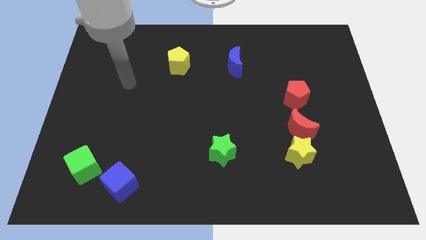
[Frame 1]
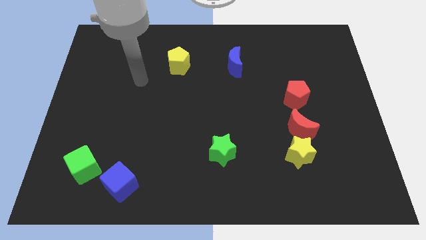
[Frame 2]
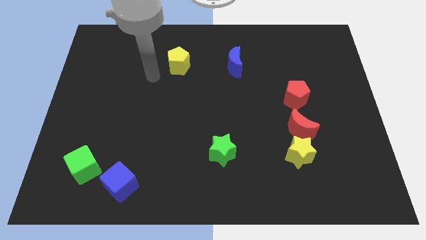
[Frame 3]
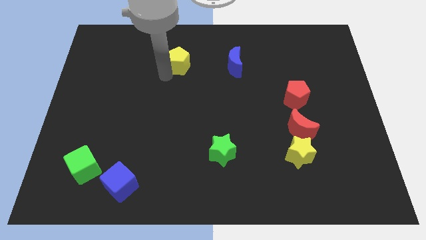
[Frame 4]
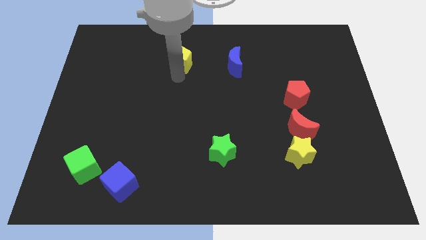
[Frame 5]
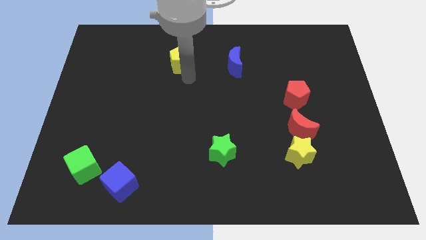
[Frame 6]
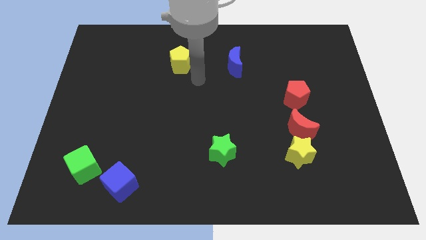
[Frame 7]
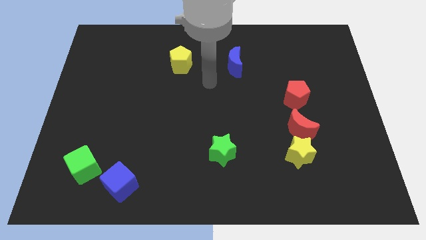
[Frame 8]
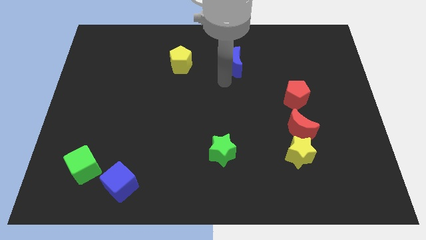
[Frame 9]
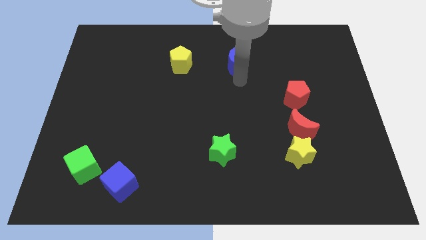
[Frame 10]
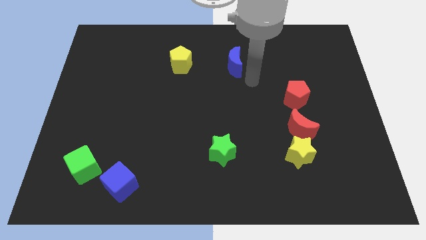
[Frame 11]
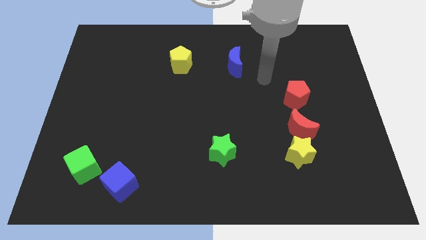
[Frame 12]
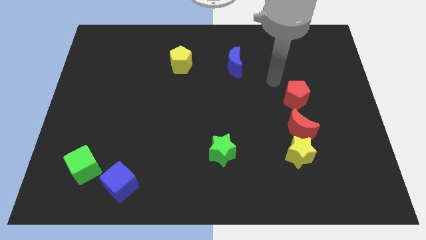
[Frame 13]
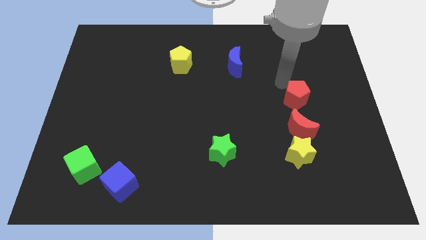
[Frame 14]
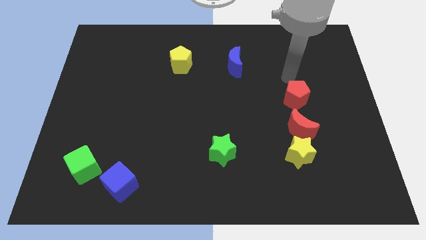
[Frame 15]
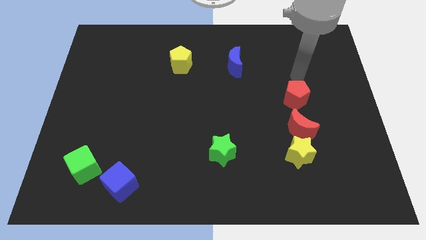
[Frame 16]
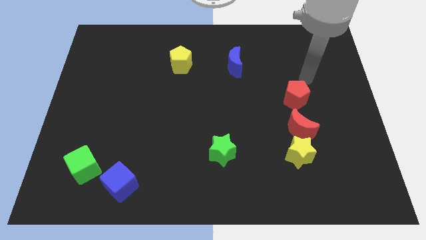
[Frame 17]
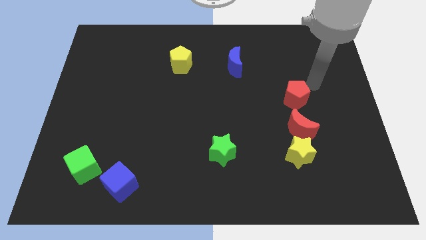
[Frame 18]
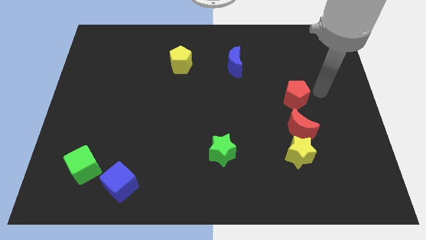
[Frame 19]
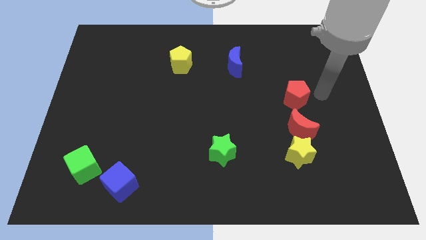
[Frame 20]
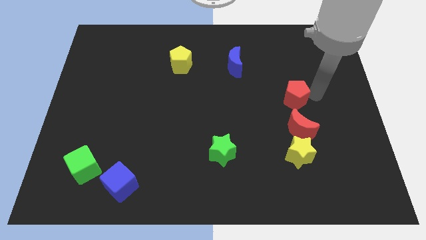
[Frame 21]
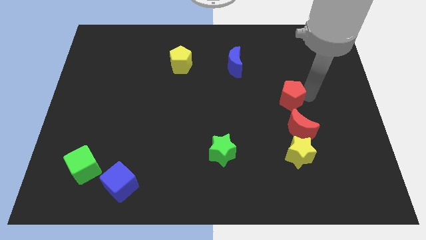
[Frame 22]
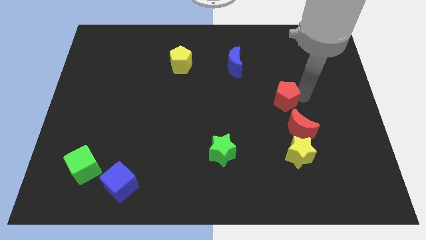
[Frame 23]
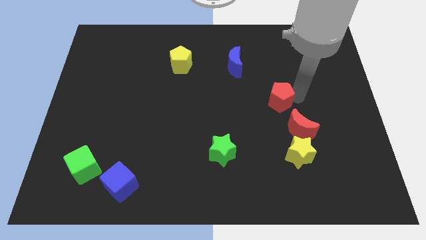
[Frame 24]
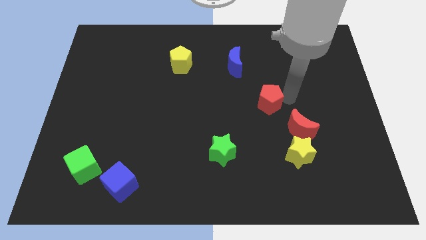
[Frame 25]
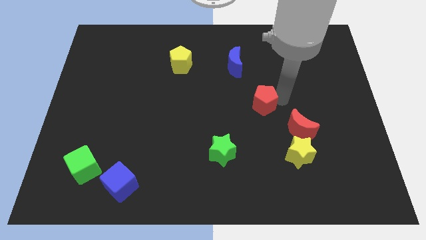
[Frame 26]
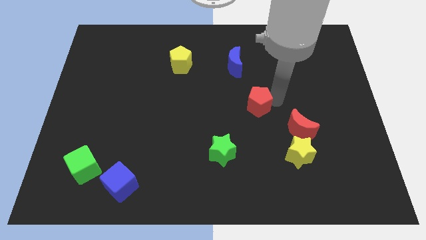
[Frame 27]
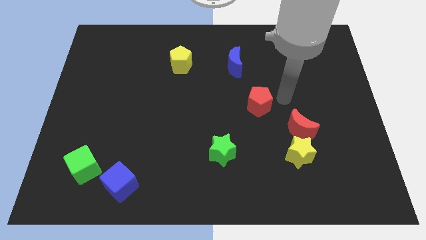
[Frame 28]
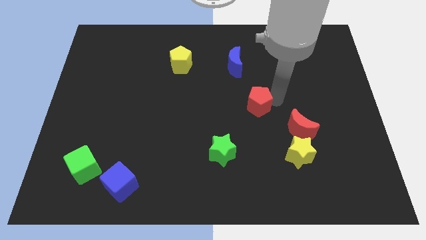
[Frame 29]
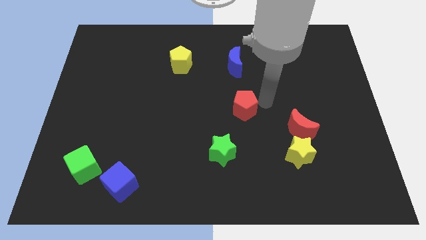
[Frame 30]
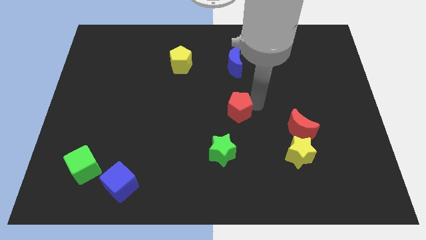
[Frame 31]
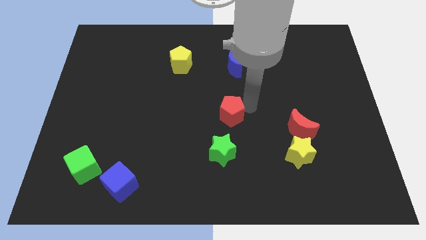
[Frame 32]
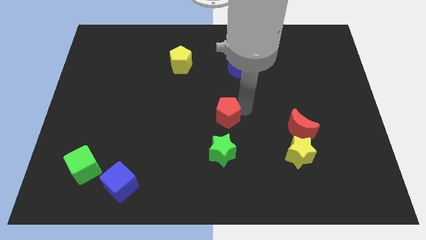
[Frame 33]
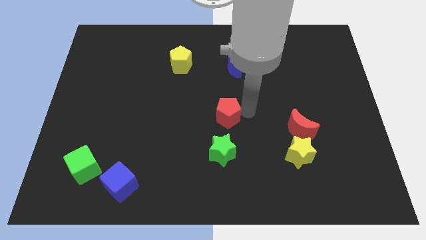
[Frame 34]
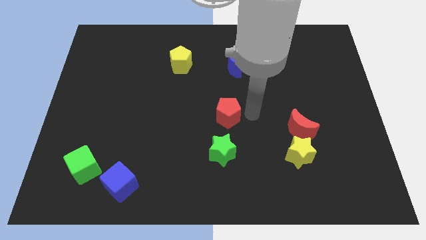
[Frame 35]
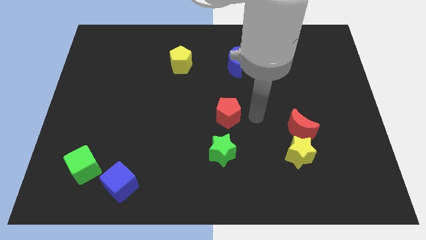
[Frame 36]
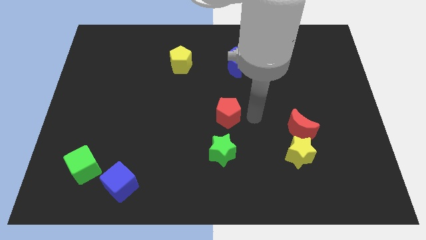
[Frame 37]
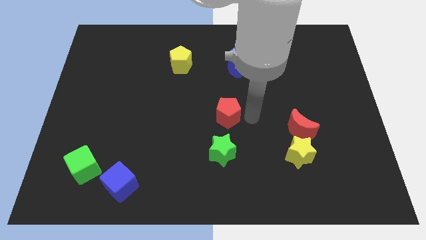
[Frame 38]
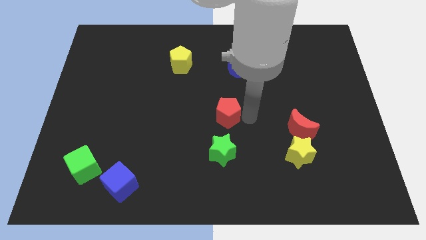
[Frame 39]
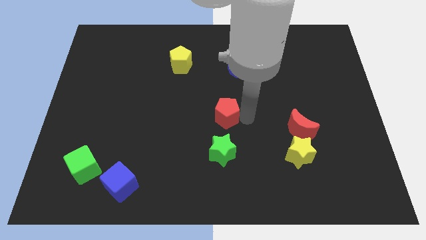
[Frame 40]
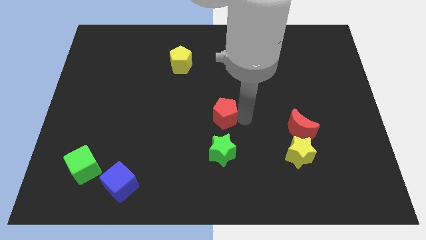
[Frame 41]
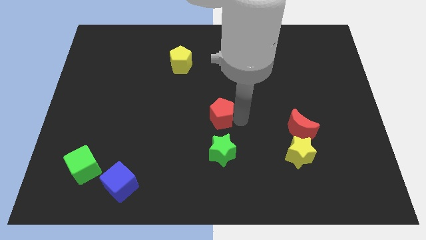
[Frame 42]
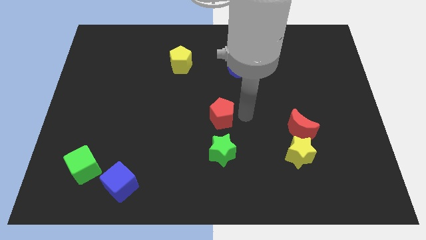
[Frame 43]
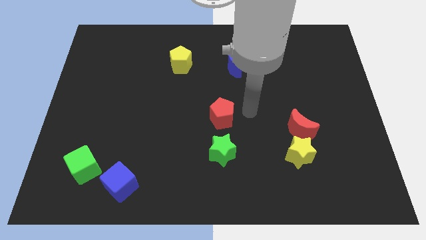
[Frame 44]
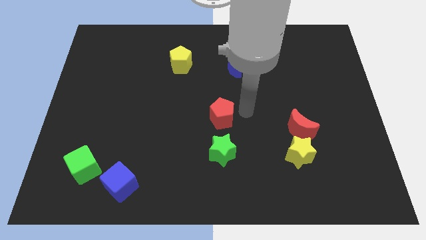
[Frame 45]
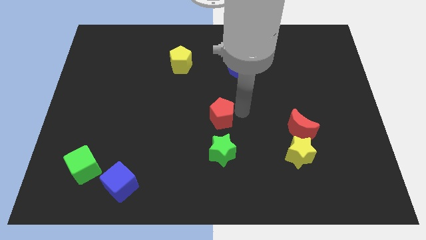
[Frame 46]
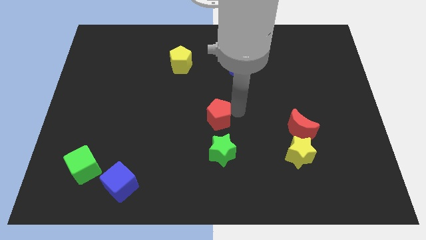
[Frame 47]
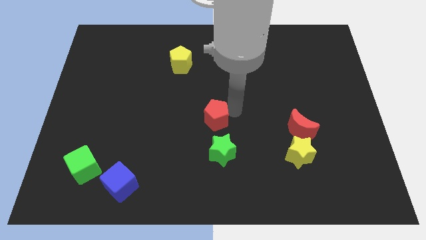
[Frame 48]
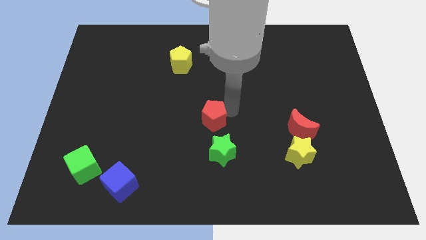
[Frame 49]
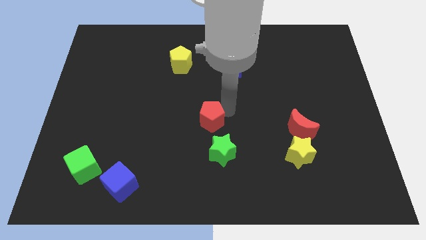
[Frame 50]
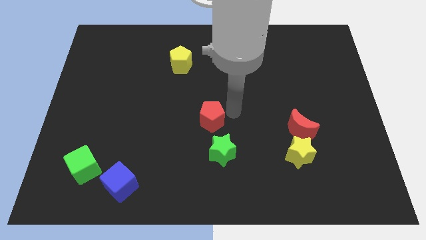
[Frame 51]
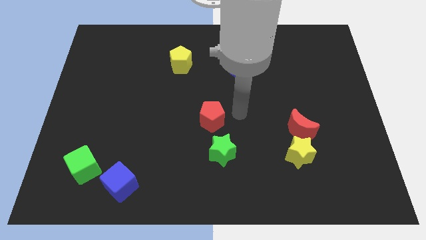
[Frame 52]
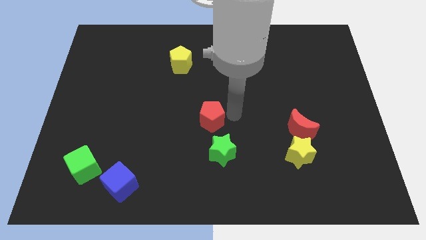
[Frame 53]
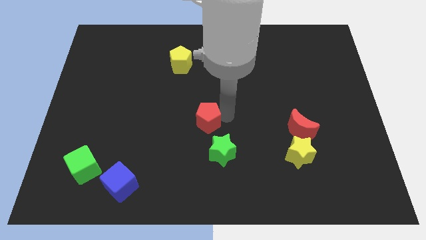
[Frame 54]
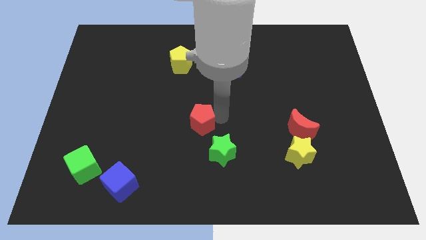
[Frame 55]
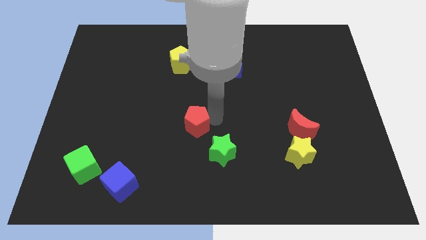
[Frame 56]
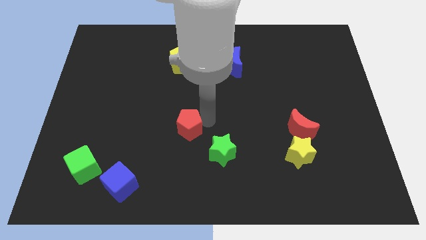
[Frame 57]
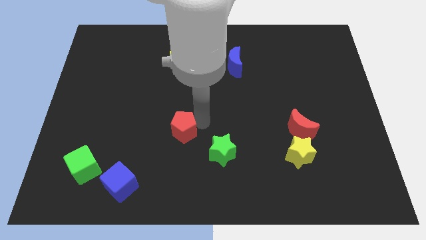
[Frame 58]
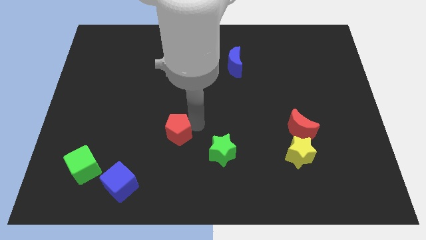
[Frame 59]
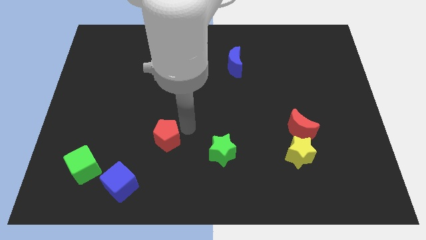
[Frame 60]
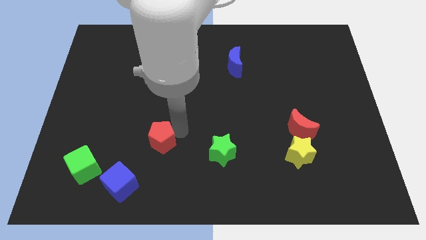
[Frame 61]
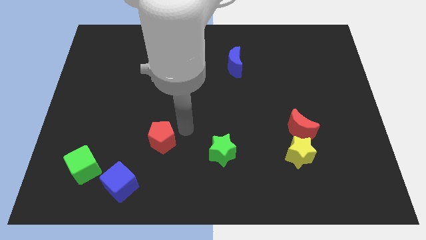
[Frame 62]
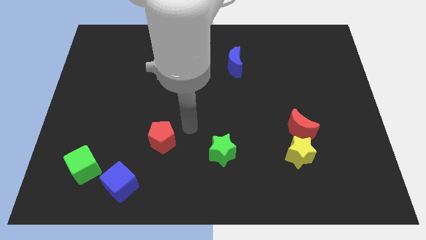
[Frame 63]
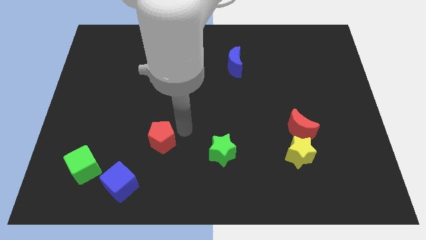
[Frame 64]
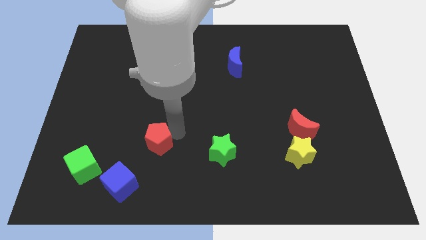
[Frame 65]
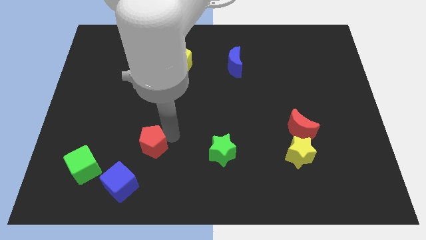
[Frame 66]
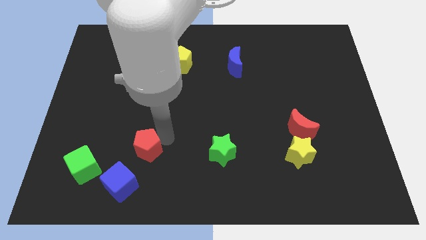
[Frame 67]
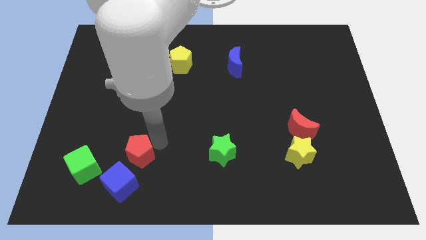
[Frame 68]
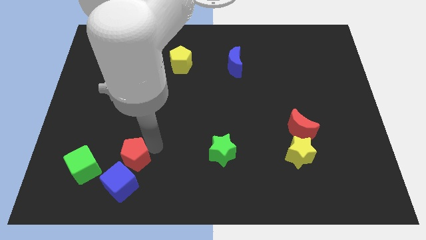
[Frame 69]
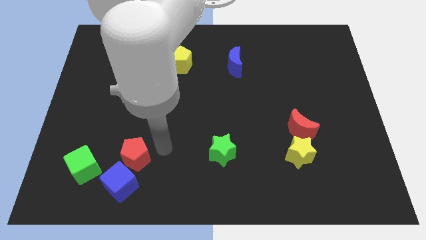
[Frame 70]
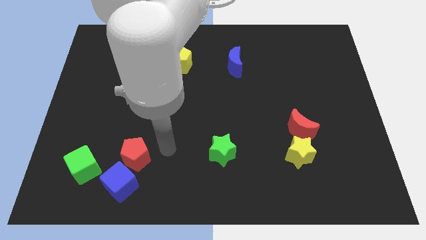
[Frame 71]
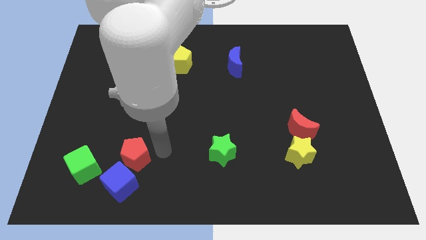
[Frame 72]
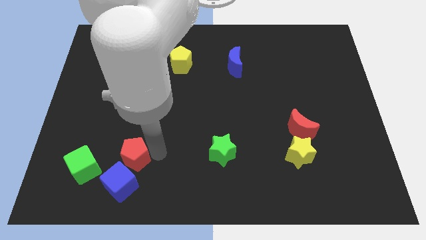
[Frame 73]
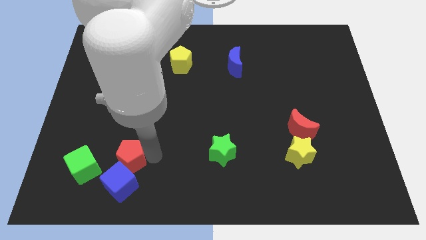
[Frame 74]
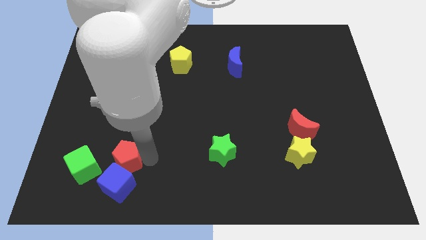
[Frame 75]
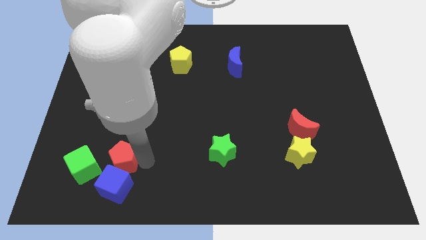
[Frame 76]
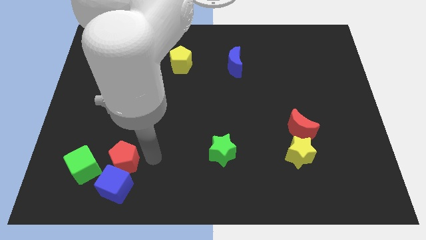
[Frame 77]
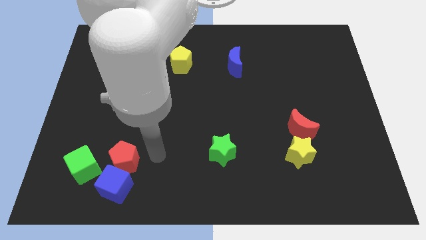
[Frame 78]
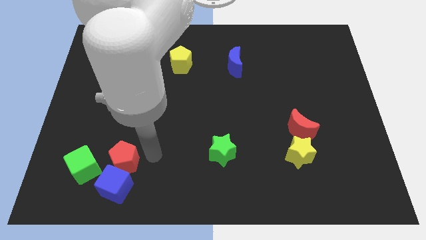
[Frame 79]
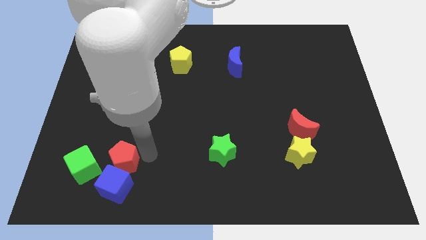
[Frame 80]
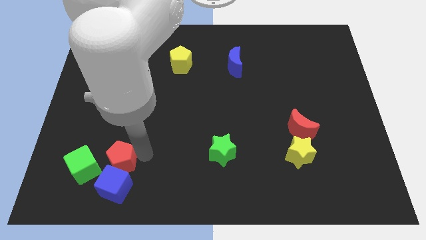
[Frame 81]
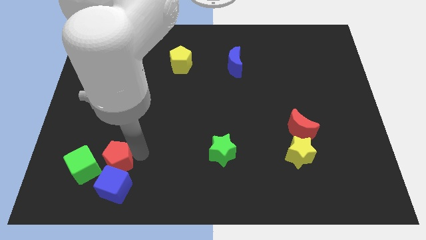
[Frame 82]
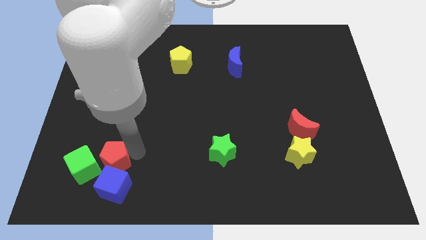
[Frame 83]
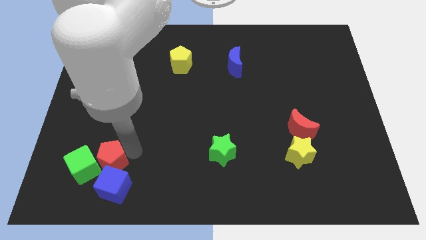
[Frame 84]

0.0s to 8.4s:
move the red pentagon to the green cube
